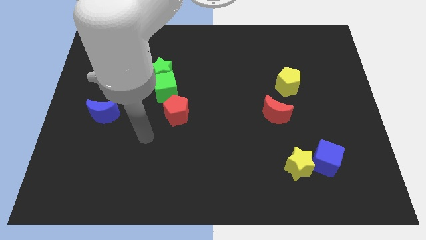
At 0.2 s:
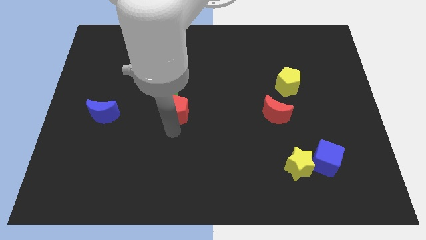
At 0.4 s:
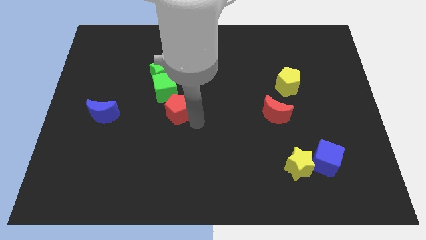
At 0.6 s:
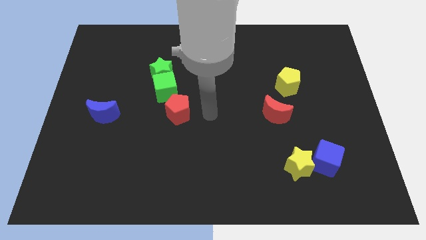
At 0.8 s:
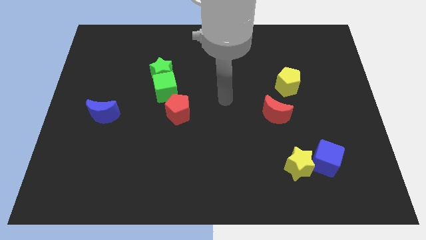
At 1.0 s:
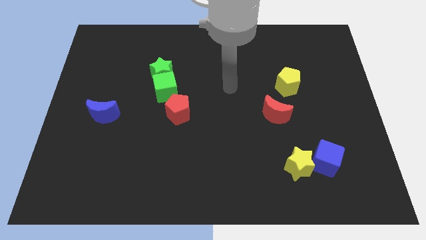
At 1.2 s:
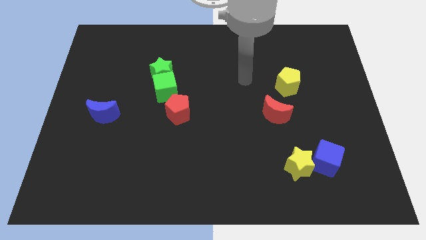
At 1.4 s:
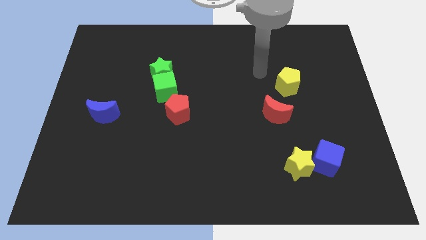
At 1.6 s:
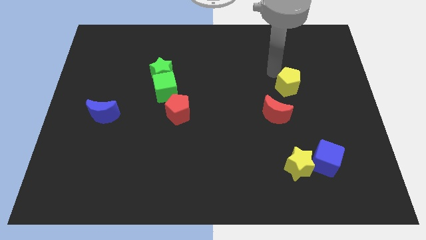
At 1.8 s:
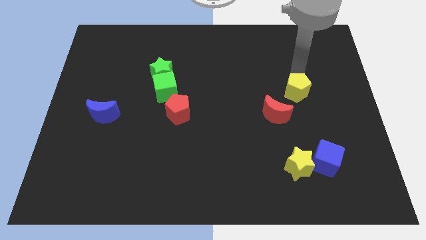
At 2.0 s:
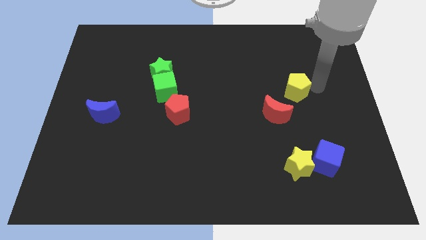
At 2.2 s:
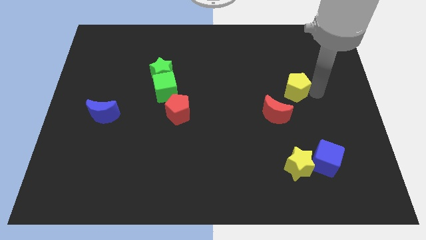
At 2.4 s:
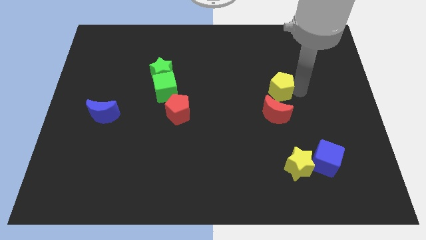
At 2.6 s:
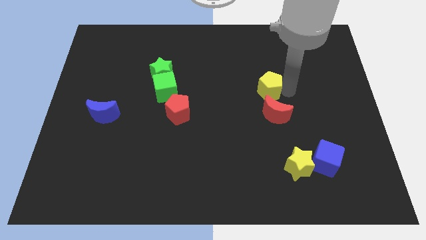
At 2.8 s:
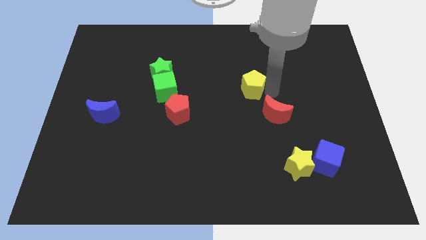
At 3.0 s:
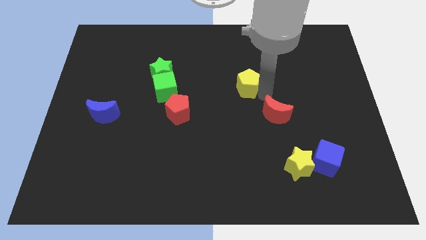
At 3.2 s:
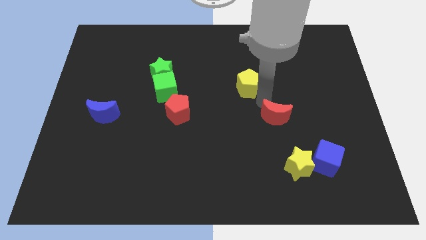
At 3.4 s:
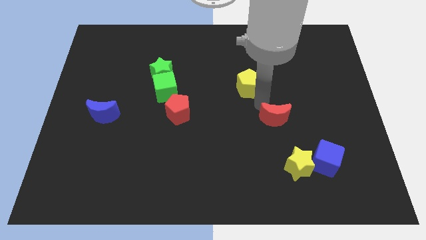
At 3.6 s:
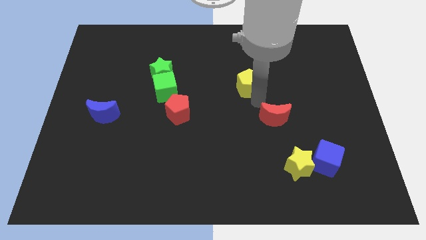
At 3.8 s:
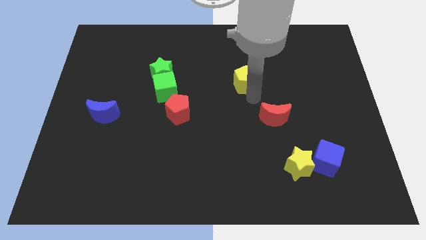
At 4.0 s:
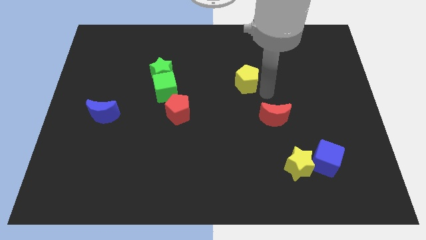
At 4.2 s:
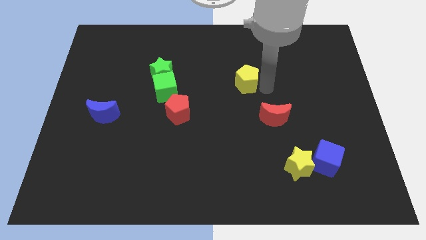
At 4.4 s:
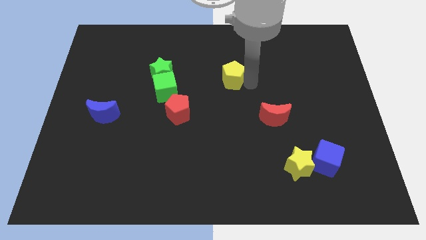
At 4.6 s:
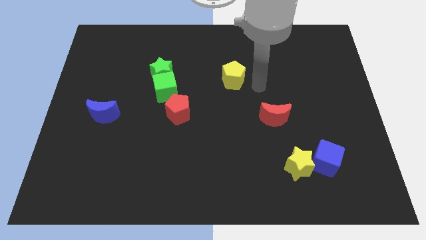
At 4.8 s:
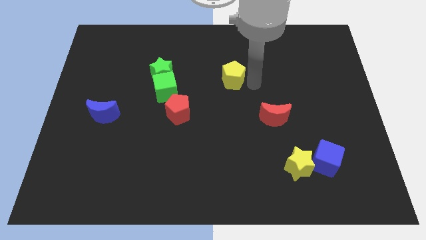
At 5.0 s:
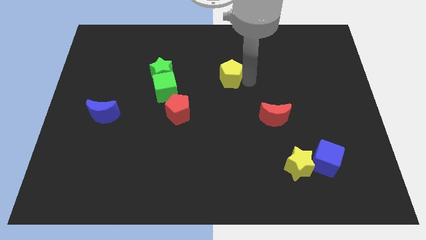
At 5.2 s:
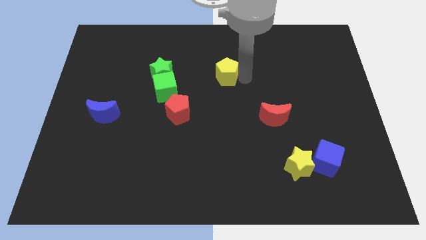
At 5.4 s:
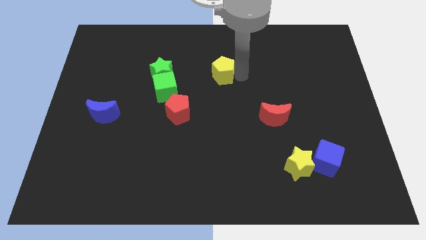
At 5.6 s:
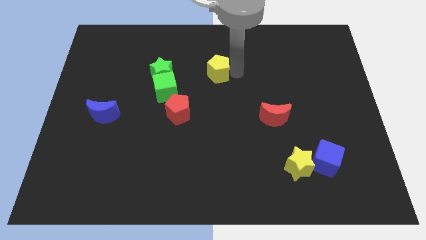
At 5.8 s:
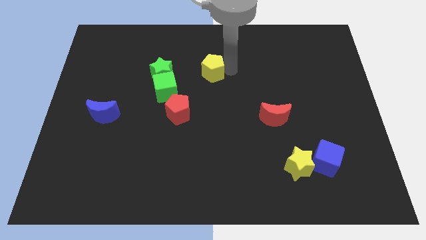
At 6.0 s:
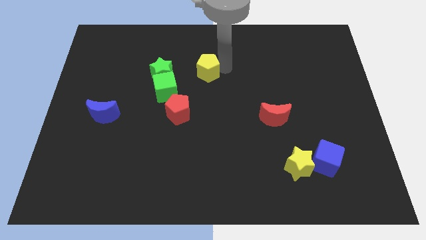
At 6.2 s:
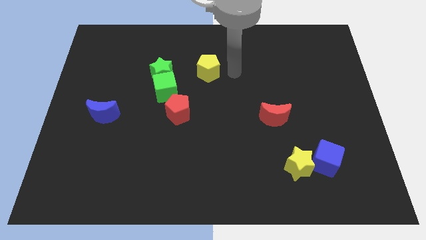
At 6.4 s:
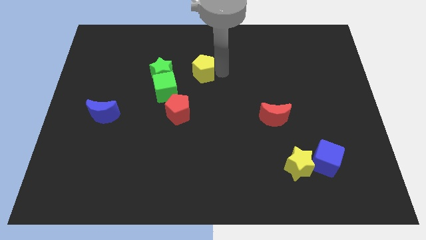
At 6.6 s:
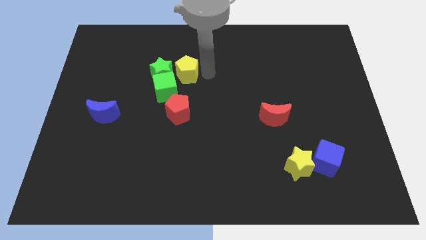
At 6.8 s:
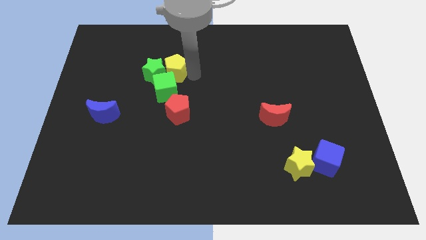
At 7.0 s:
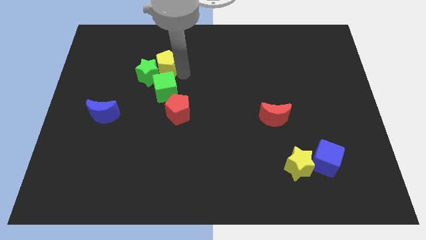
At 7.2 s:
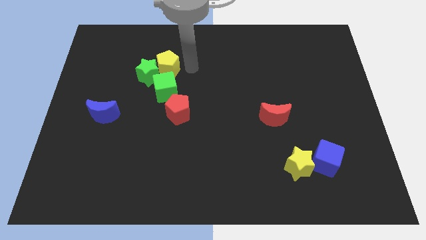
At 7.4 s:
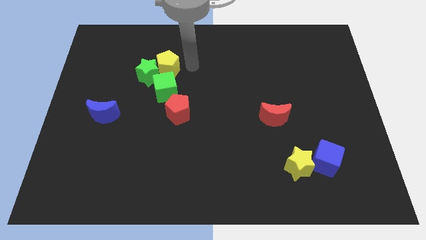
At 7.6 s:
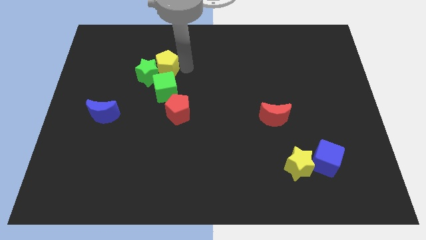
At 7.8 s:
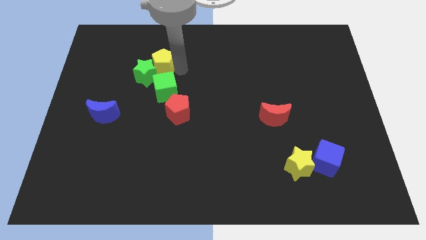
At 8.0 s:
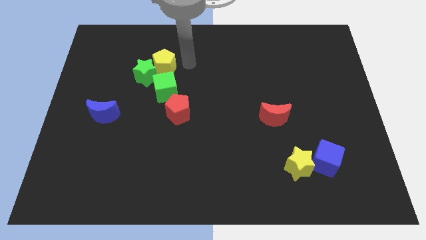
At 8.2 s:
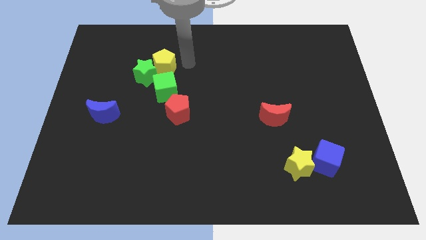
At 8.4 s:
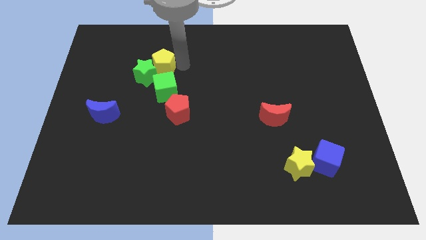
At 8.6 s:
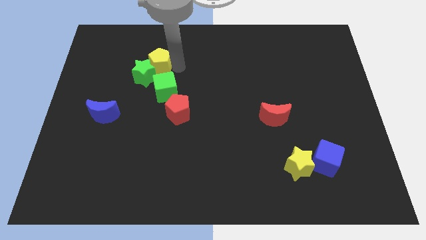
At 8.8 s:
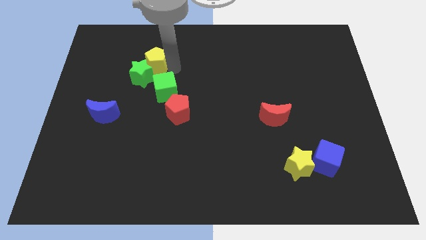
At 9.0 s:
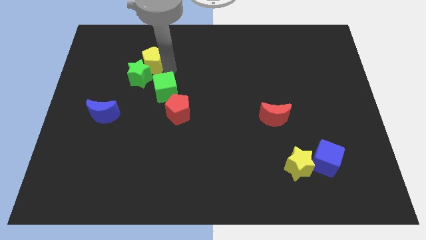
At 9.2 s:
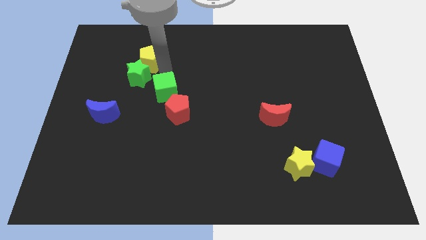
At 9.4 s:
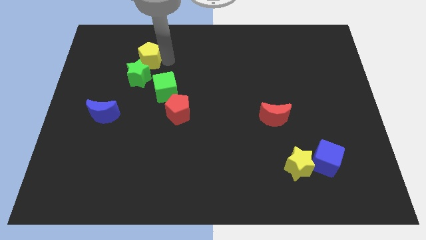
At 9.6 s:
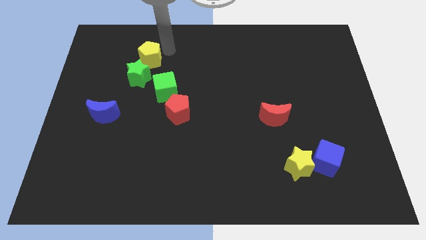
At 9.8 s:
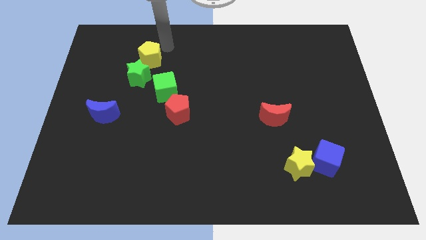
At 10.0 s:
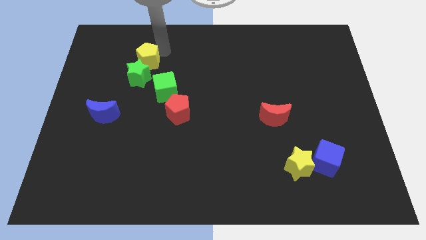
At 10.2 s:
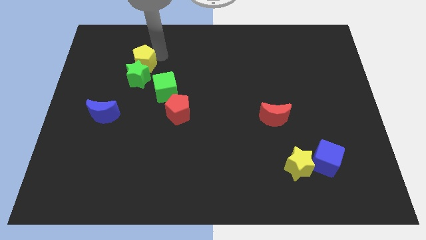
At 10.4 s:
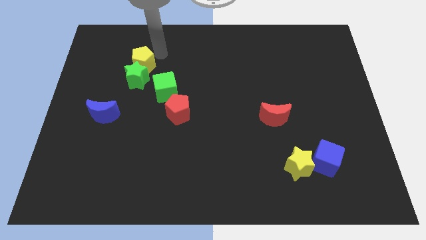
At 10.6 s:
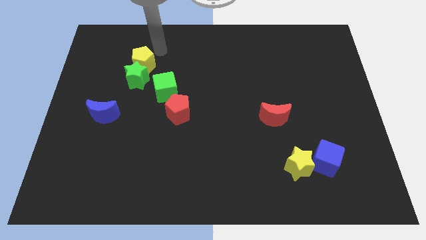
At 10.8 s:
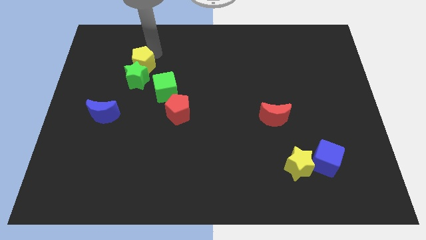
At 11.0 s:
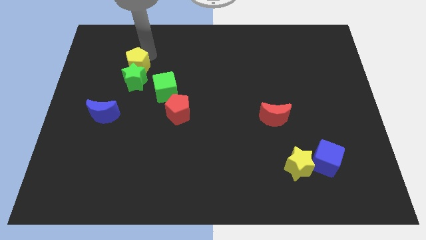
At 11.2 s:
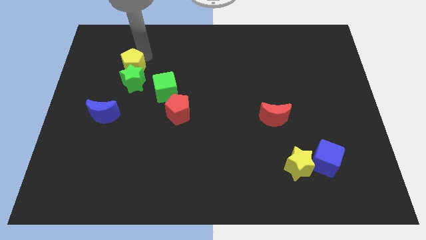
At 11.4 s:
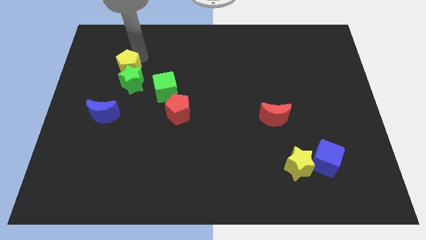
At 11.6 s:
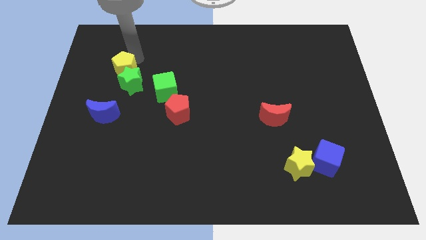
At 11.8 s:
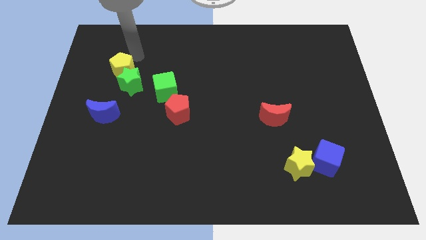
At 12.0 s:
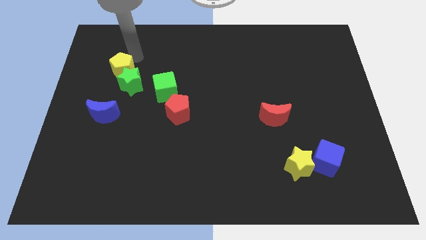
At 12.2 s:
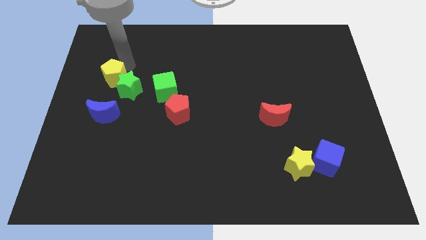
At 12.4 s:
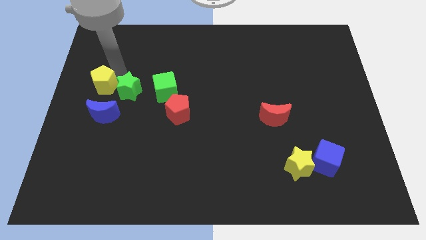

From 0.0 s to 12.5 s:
push the yellow pentagon to the left side

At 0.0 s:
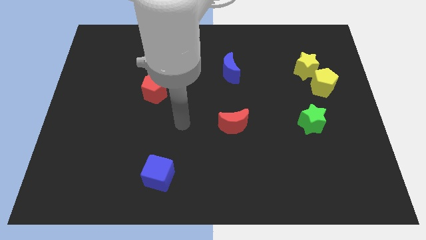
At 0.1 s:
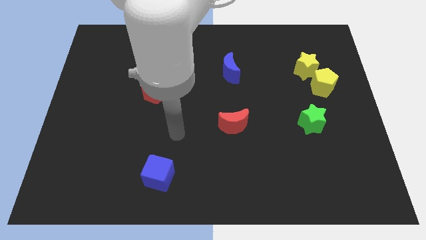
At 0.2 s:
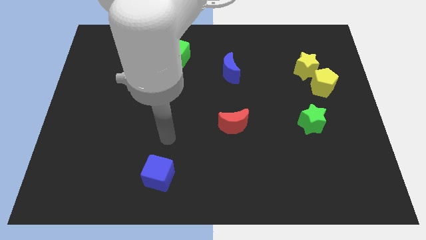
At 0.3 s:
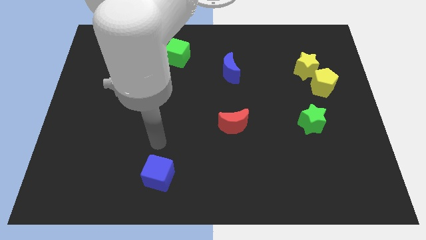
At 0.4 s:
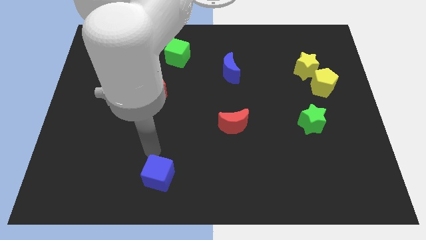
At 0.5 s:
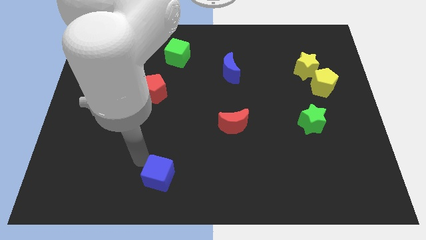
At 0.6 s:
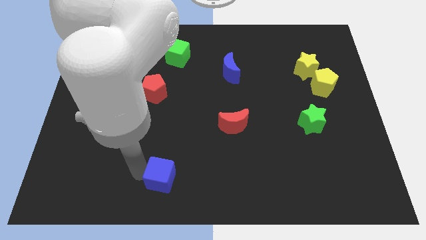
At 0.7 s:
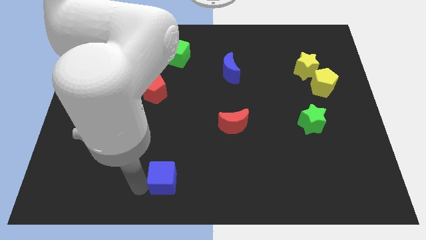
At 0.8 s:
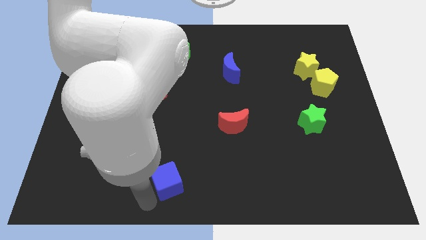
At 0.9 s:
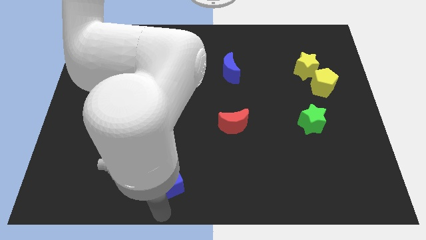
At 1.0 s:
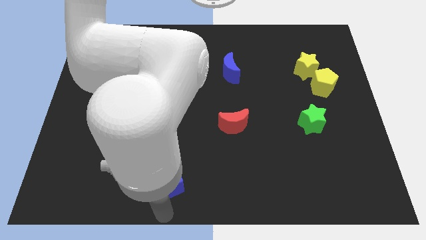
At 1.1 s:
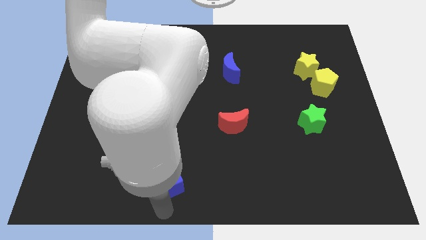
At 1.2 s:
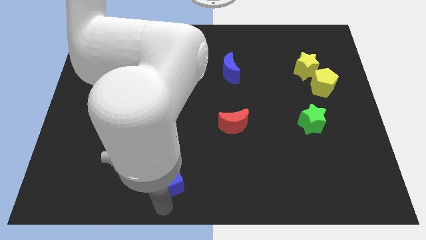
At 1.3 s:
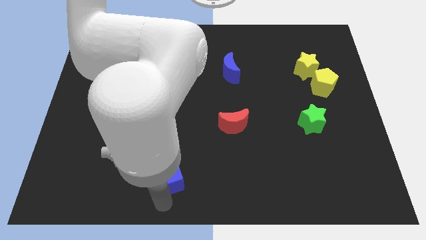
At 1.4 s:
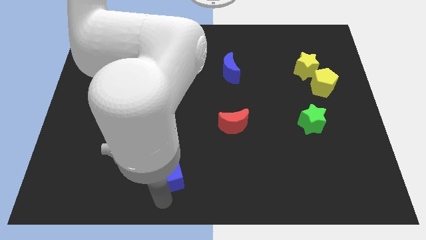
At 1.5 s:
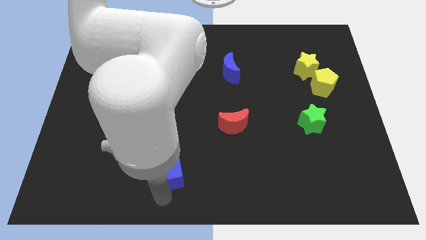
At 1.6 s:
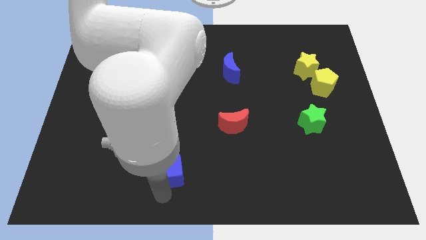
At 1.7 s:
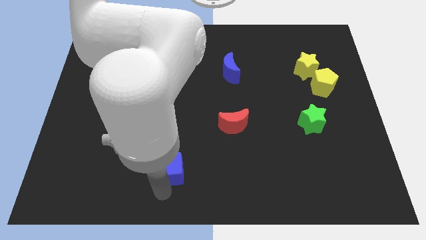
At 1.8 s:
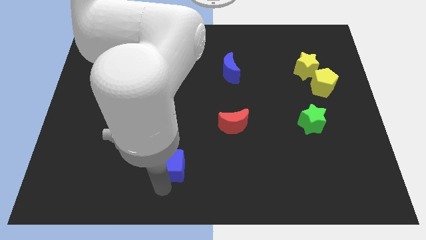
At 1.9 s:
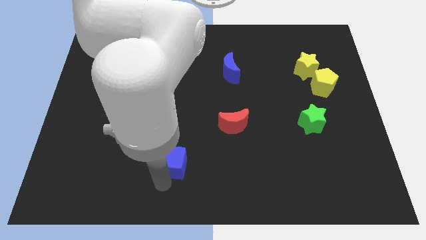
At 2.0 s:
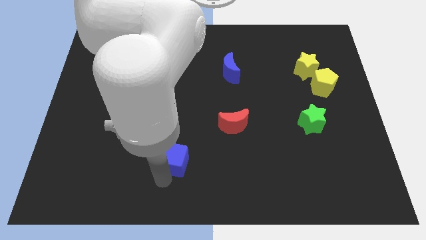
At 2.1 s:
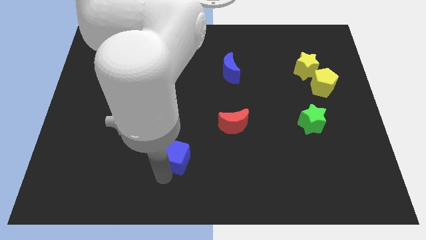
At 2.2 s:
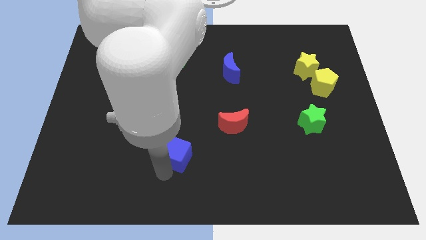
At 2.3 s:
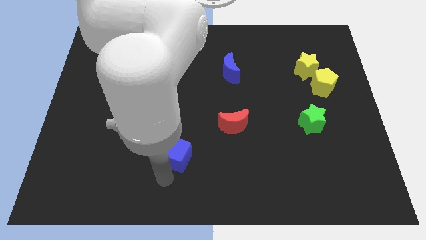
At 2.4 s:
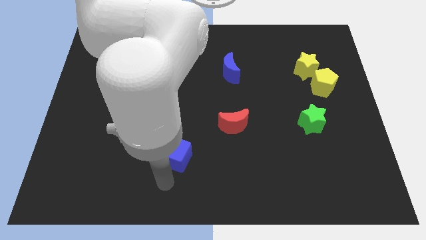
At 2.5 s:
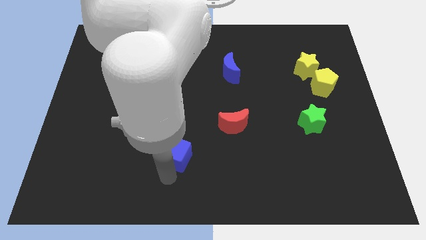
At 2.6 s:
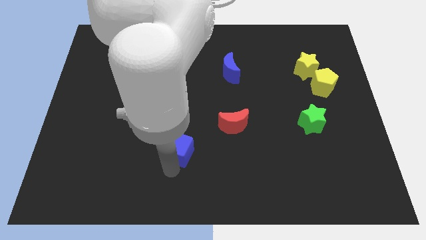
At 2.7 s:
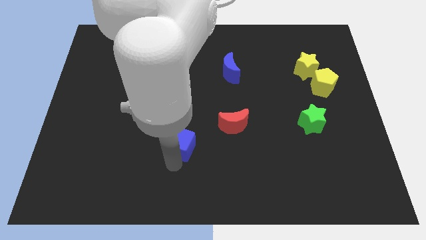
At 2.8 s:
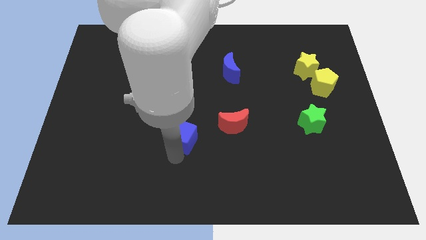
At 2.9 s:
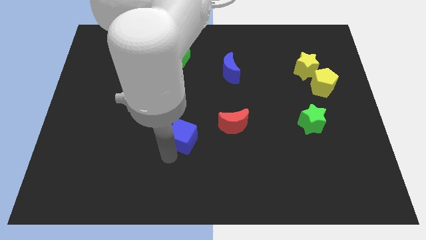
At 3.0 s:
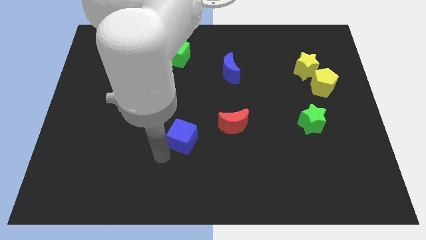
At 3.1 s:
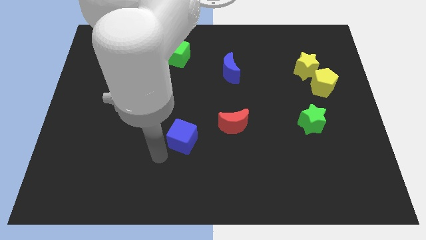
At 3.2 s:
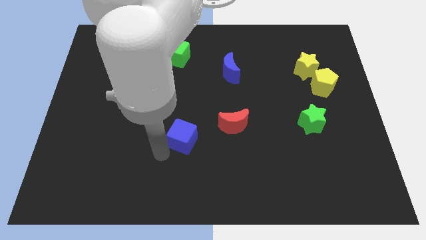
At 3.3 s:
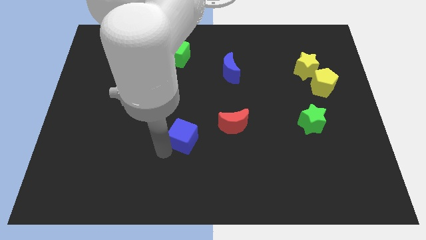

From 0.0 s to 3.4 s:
put the blue cube to the center of the board
